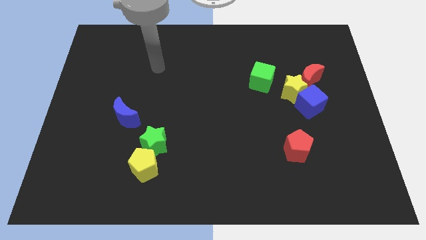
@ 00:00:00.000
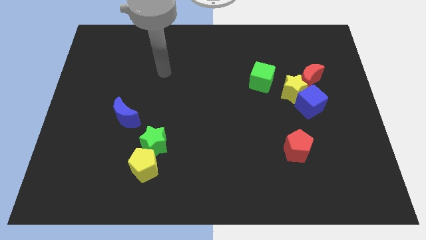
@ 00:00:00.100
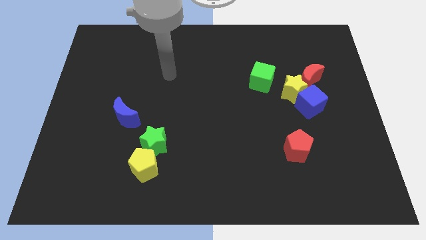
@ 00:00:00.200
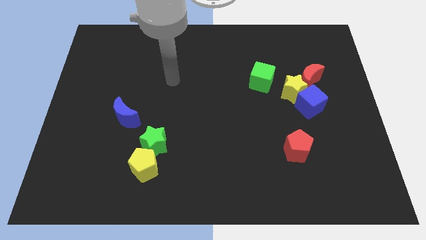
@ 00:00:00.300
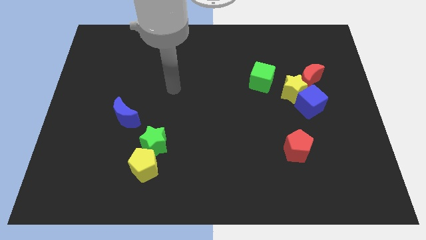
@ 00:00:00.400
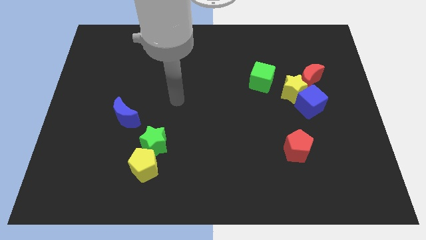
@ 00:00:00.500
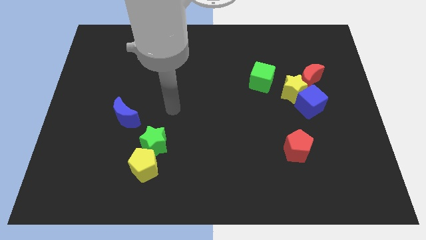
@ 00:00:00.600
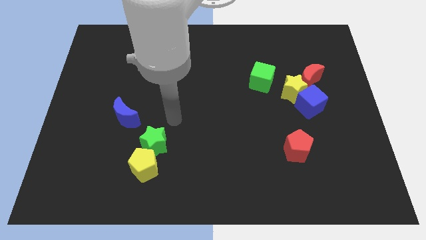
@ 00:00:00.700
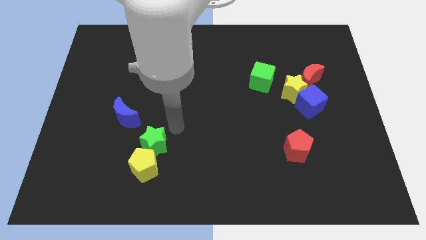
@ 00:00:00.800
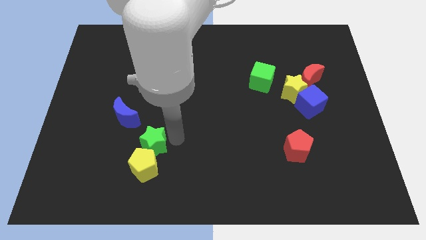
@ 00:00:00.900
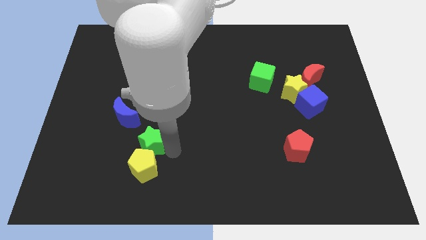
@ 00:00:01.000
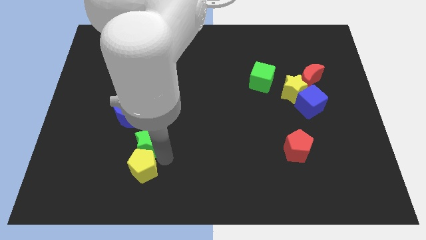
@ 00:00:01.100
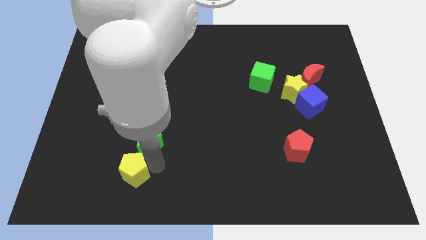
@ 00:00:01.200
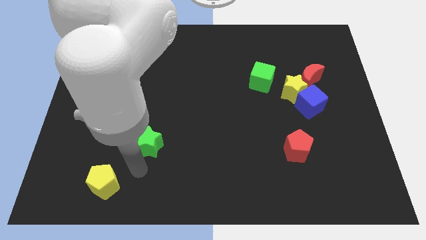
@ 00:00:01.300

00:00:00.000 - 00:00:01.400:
move the green star away from the yellow pentagon

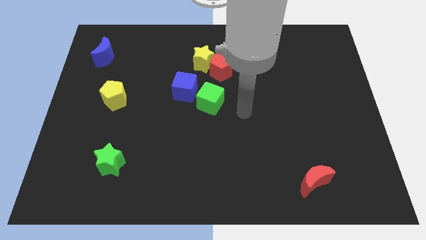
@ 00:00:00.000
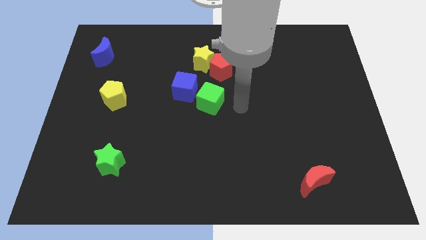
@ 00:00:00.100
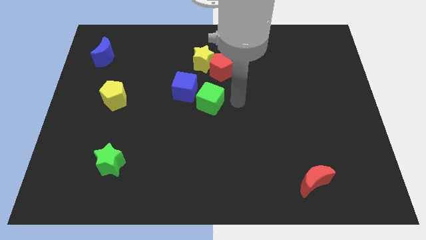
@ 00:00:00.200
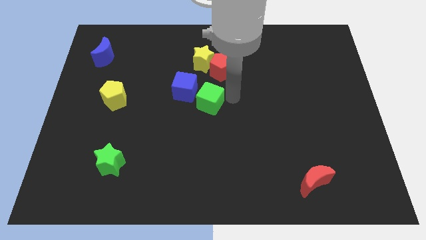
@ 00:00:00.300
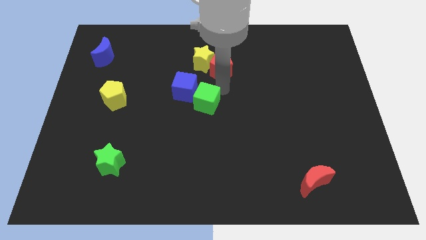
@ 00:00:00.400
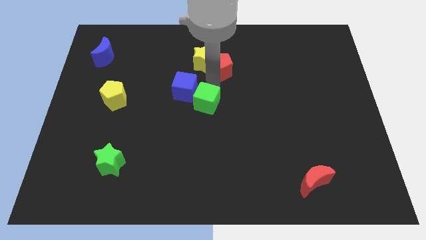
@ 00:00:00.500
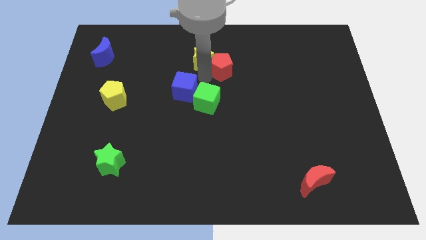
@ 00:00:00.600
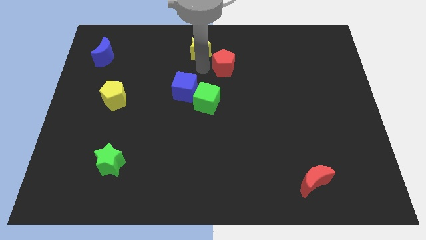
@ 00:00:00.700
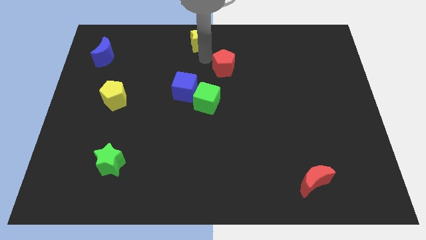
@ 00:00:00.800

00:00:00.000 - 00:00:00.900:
move the red pentagon away from the yellow star

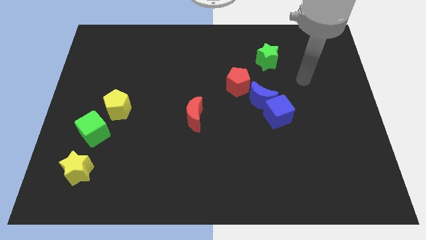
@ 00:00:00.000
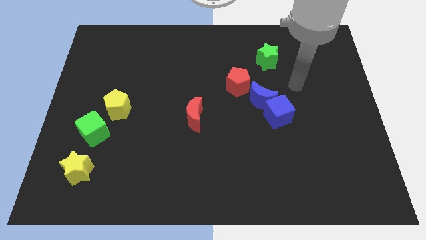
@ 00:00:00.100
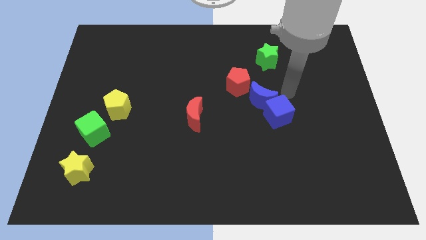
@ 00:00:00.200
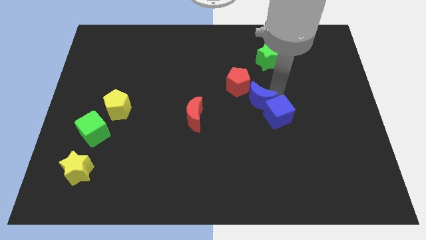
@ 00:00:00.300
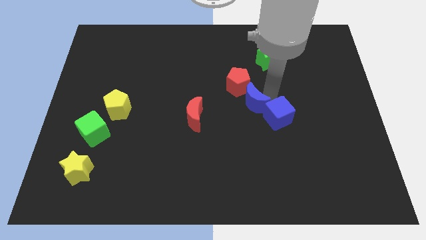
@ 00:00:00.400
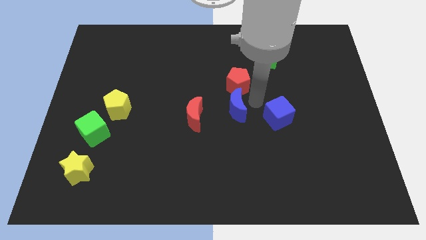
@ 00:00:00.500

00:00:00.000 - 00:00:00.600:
move the blue cube away from the blue moon

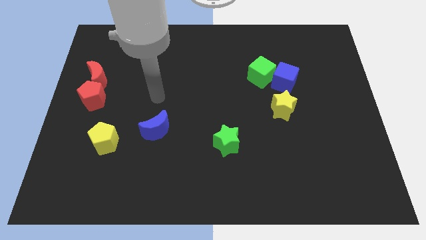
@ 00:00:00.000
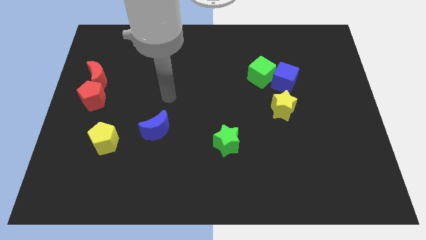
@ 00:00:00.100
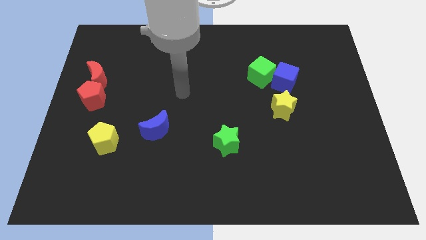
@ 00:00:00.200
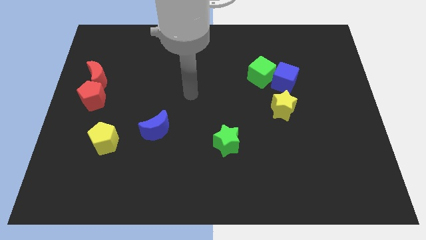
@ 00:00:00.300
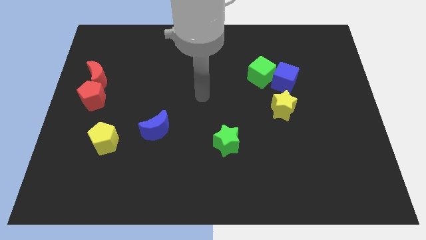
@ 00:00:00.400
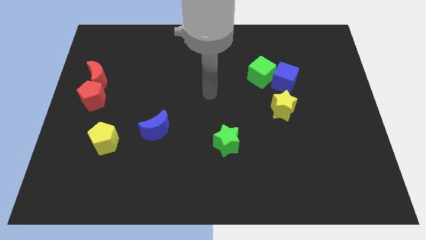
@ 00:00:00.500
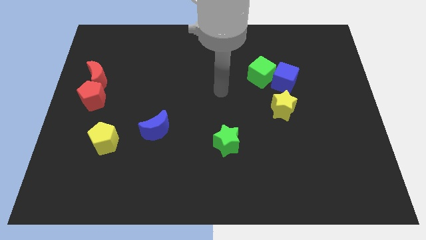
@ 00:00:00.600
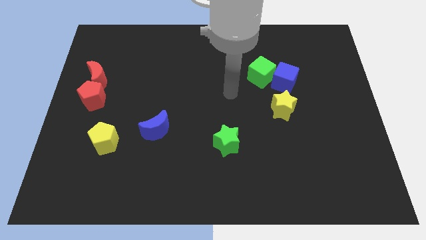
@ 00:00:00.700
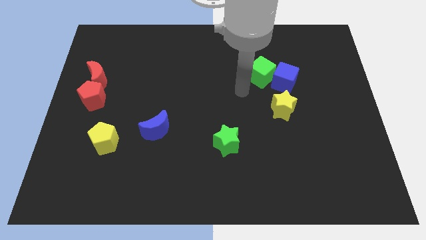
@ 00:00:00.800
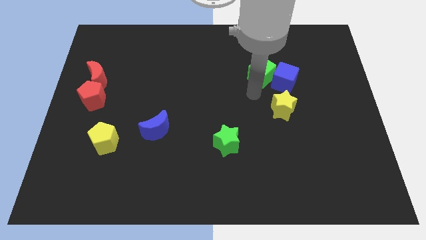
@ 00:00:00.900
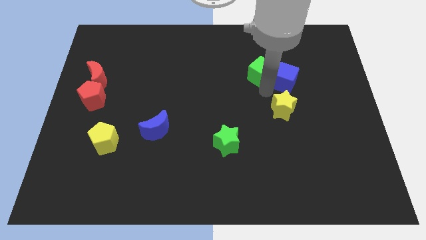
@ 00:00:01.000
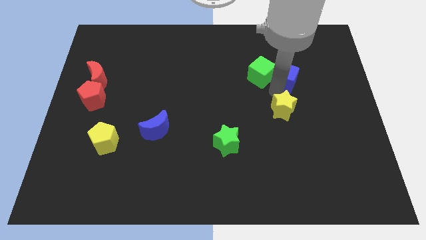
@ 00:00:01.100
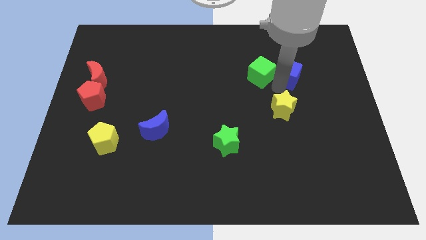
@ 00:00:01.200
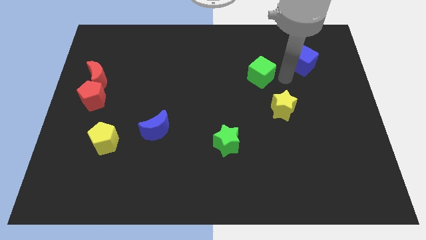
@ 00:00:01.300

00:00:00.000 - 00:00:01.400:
pull the green cube apart from the blue cube

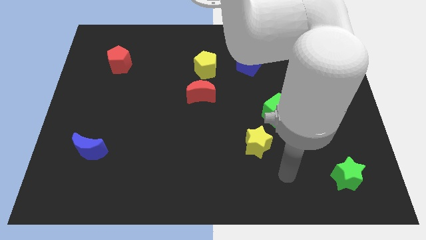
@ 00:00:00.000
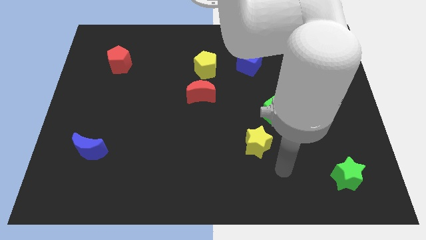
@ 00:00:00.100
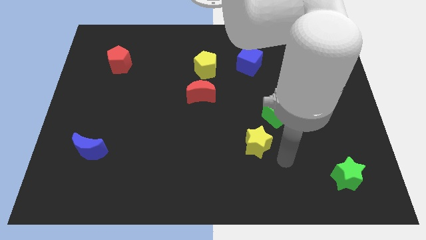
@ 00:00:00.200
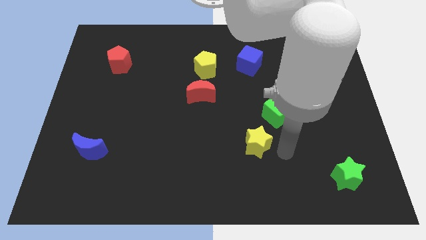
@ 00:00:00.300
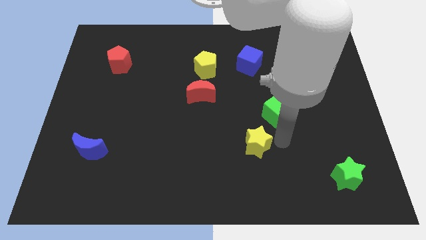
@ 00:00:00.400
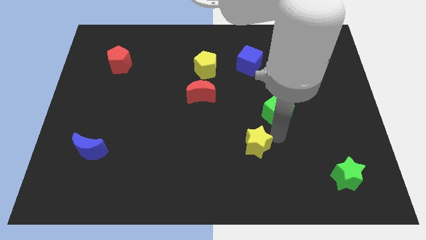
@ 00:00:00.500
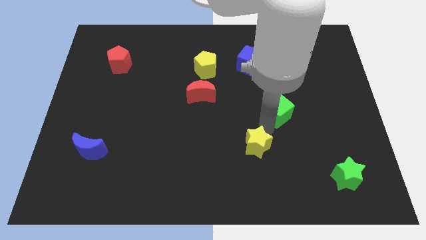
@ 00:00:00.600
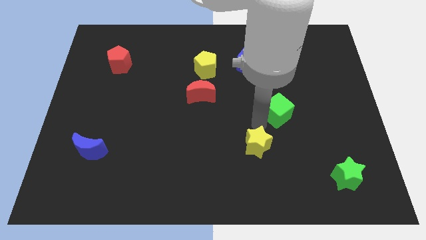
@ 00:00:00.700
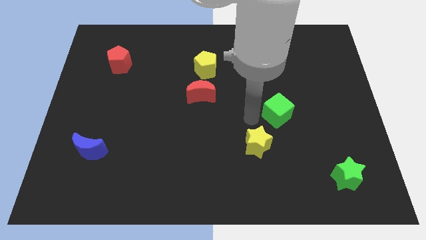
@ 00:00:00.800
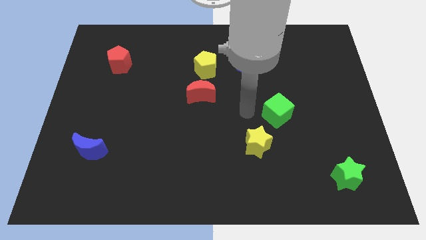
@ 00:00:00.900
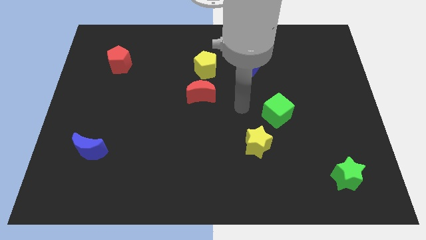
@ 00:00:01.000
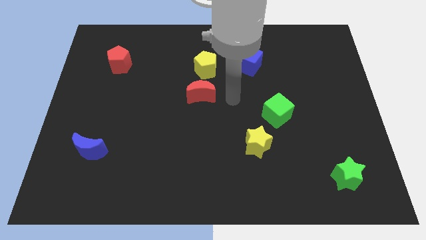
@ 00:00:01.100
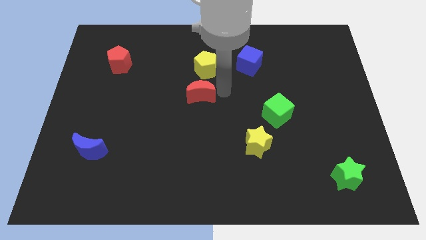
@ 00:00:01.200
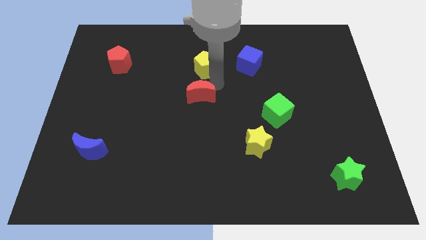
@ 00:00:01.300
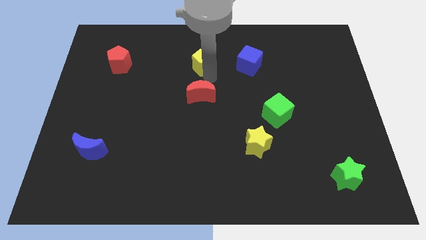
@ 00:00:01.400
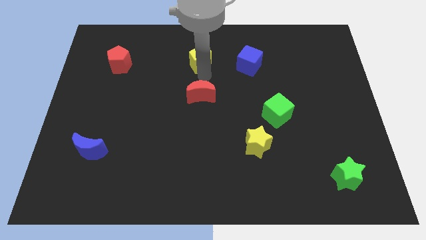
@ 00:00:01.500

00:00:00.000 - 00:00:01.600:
pull the red moon apart from the yellow pentagon

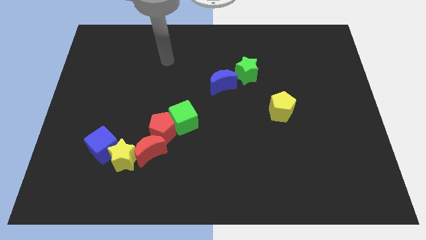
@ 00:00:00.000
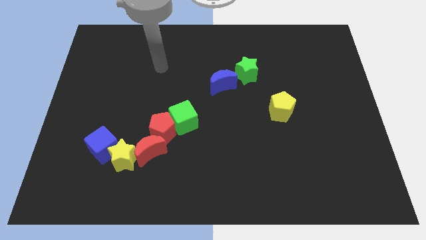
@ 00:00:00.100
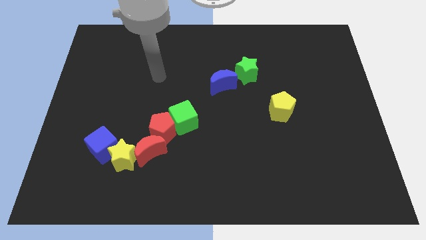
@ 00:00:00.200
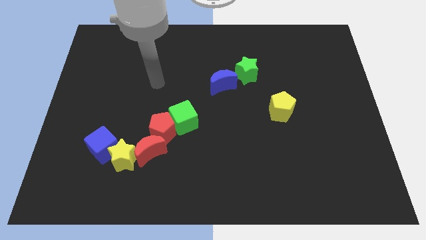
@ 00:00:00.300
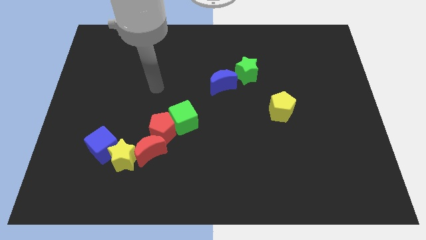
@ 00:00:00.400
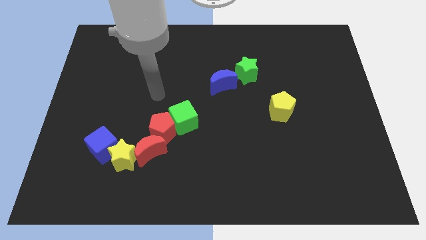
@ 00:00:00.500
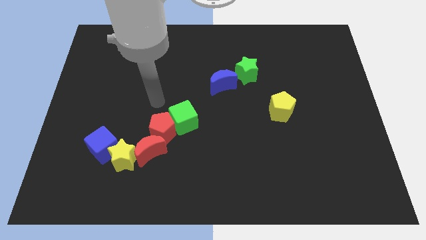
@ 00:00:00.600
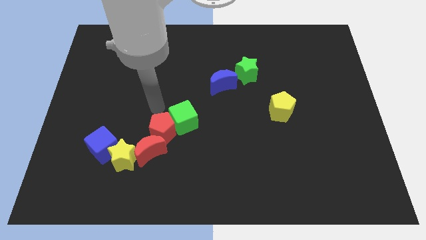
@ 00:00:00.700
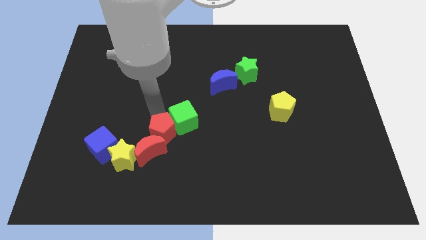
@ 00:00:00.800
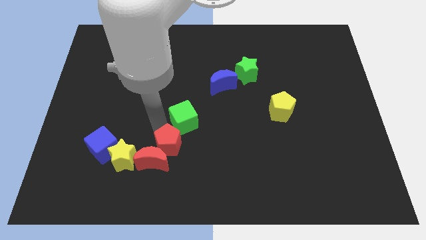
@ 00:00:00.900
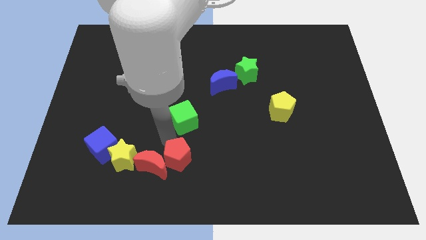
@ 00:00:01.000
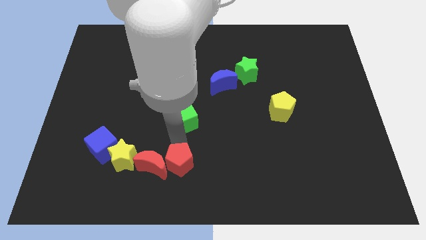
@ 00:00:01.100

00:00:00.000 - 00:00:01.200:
pull the green cube apart from the red pentagon

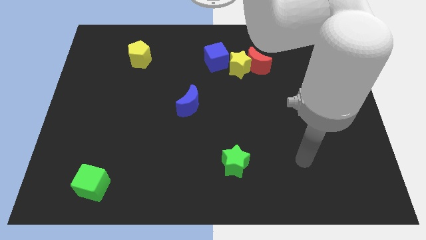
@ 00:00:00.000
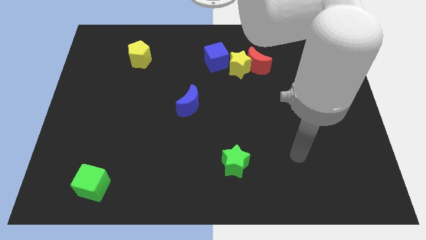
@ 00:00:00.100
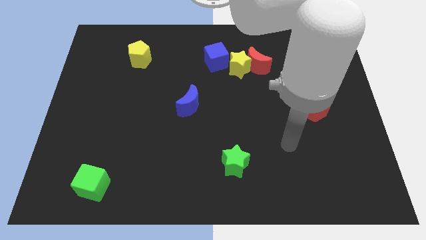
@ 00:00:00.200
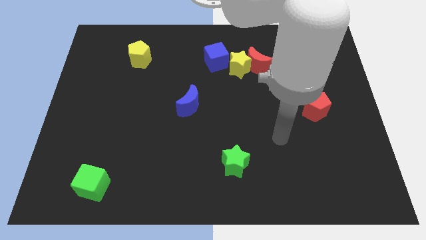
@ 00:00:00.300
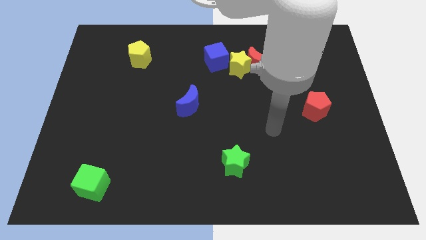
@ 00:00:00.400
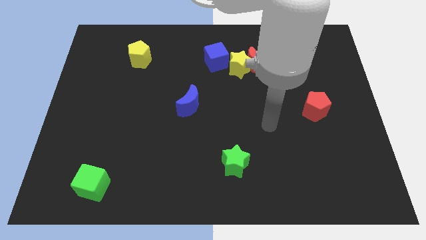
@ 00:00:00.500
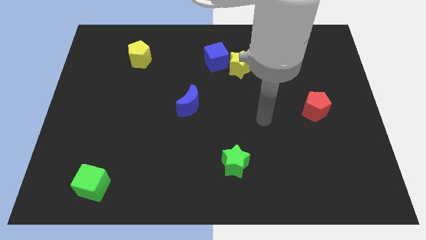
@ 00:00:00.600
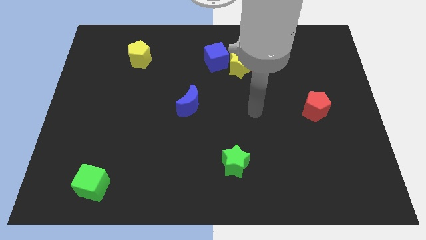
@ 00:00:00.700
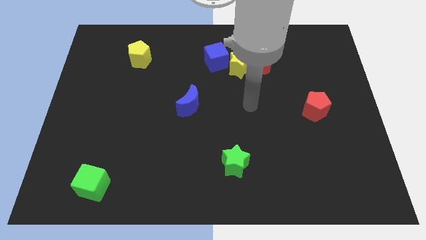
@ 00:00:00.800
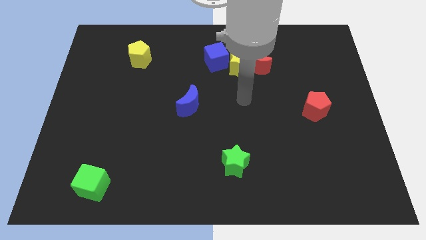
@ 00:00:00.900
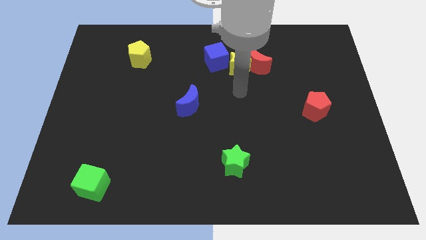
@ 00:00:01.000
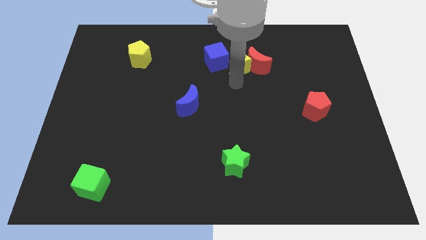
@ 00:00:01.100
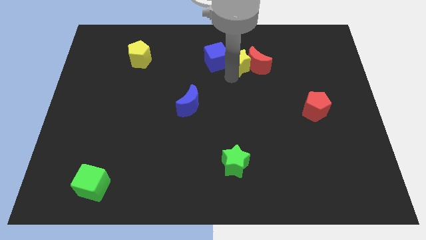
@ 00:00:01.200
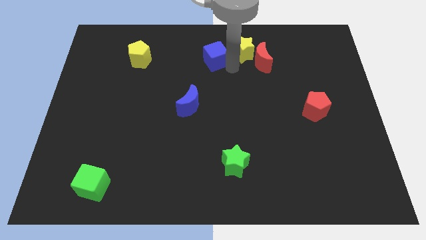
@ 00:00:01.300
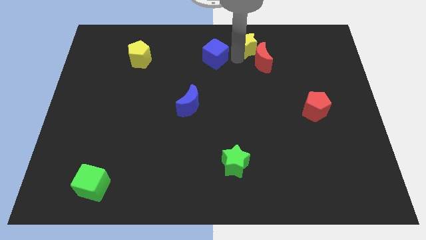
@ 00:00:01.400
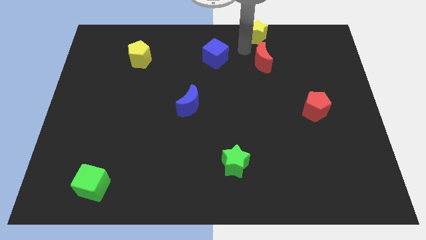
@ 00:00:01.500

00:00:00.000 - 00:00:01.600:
separate the red moon from the yellow star

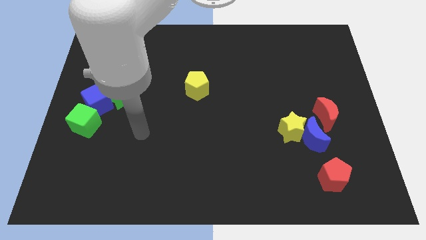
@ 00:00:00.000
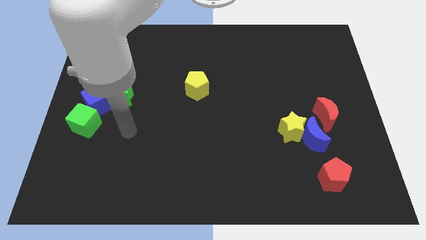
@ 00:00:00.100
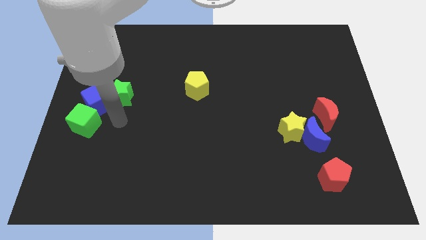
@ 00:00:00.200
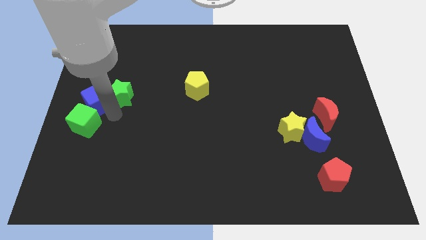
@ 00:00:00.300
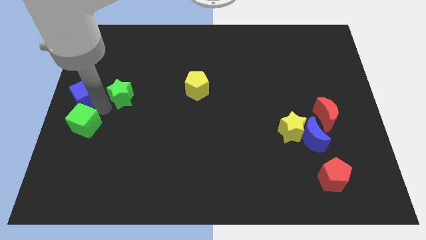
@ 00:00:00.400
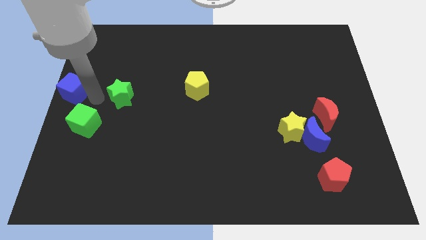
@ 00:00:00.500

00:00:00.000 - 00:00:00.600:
pull the green star apart from the blue cube
